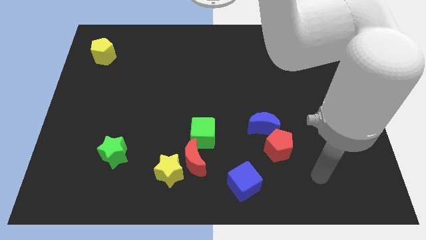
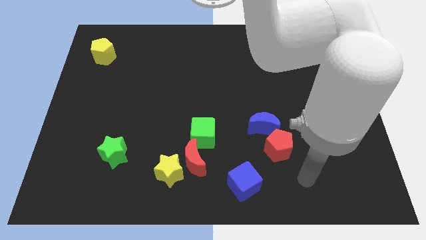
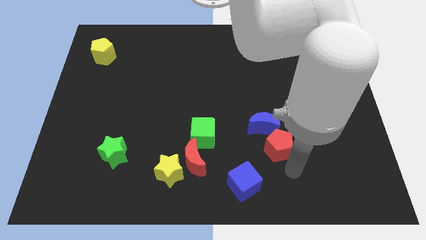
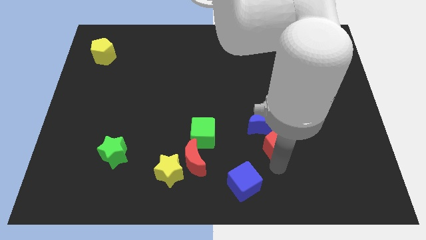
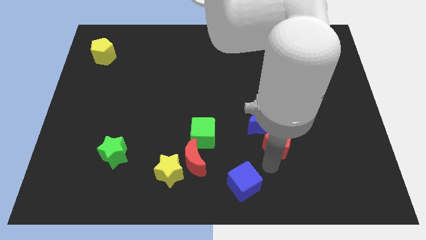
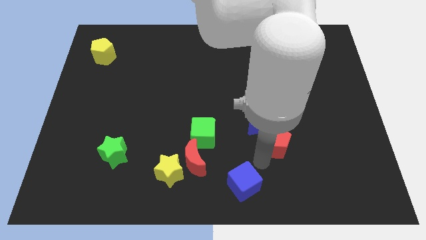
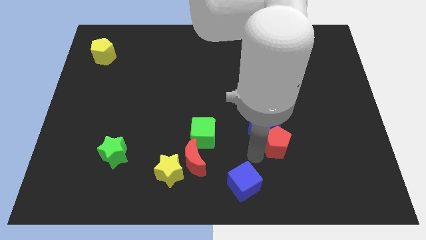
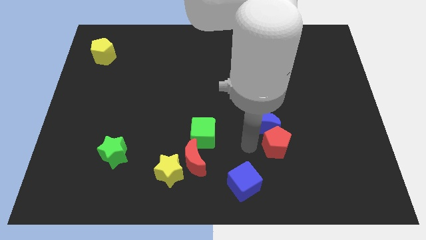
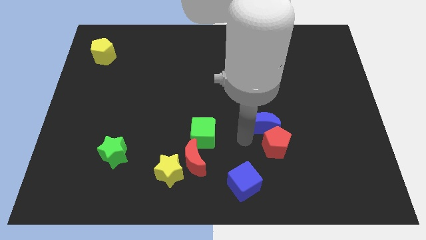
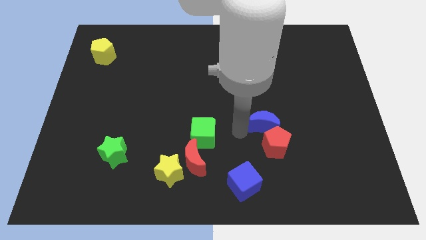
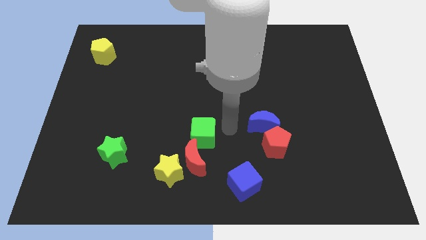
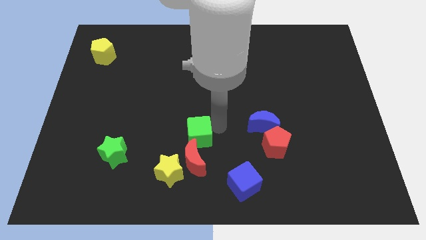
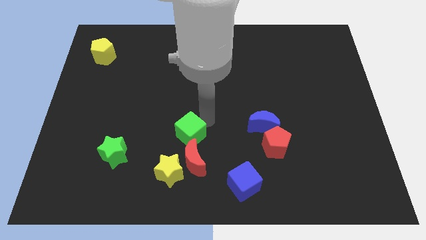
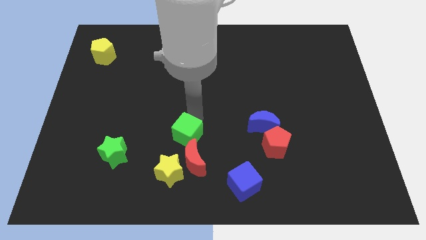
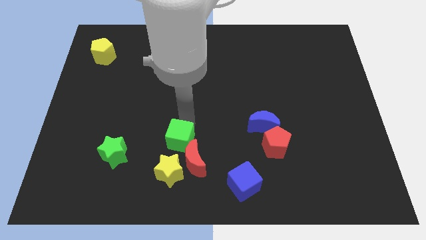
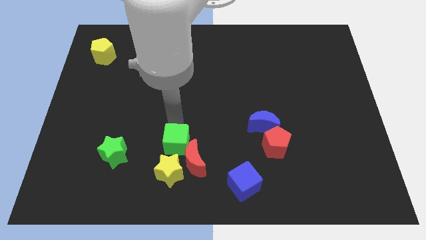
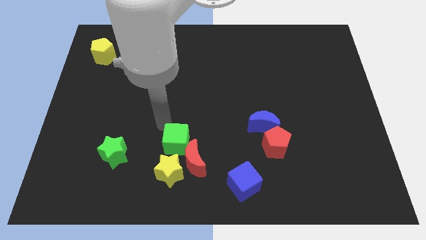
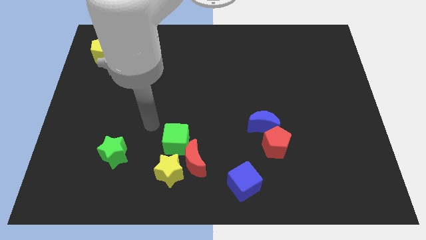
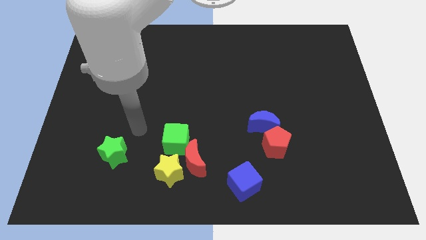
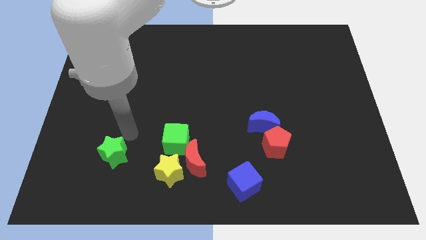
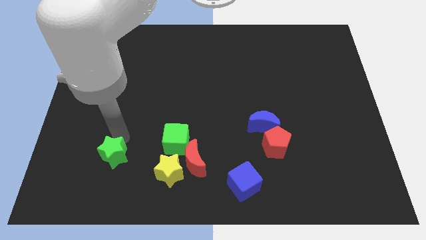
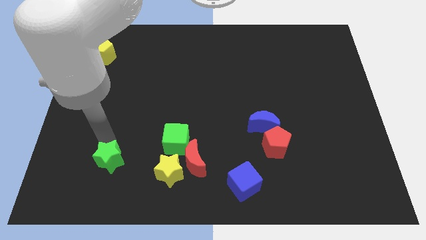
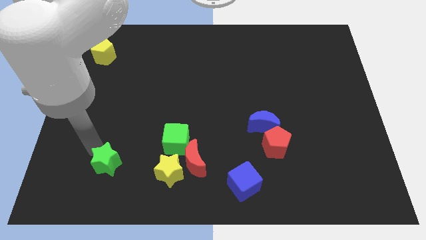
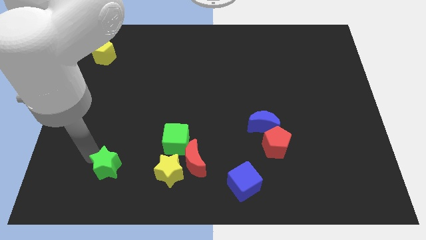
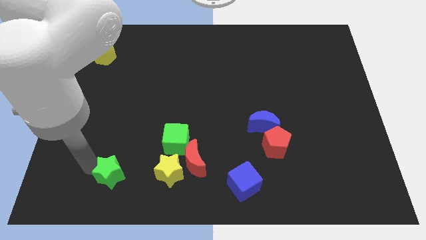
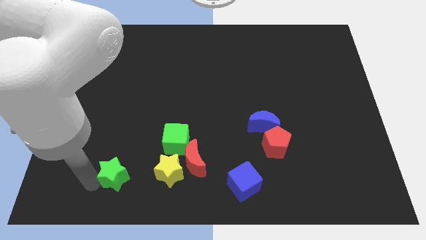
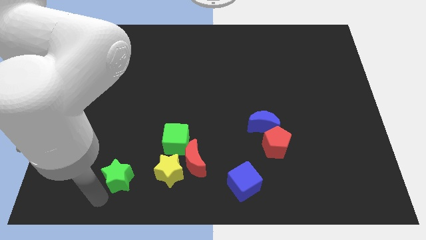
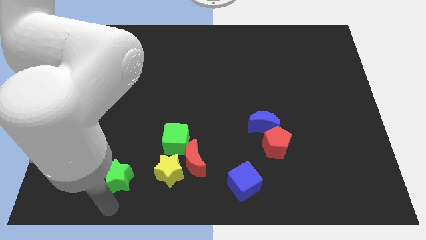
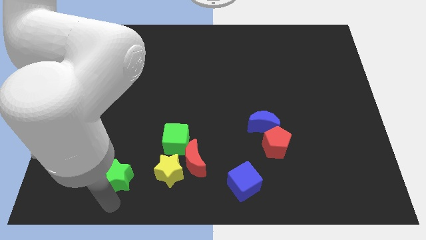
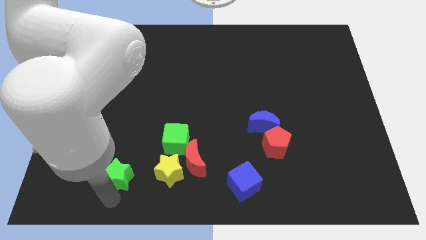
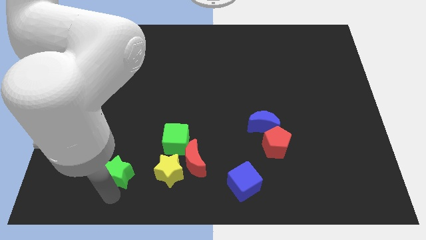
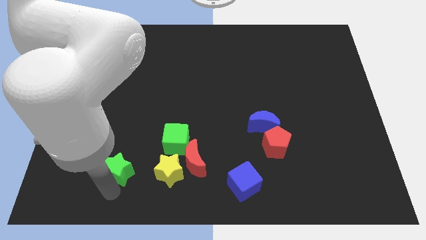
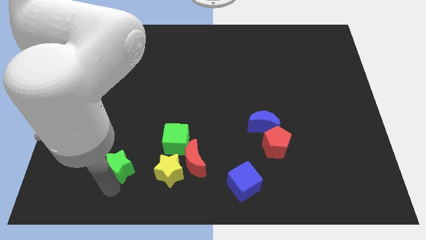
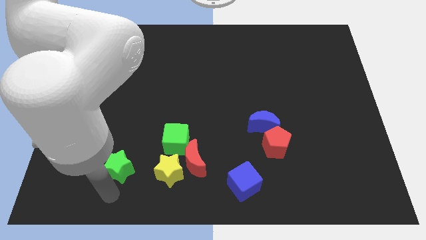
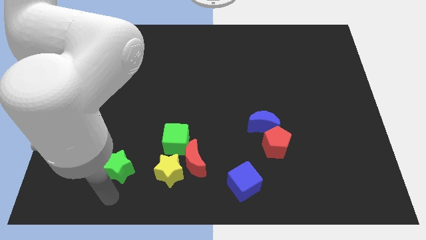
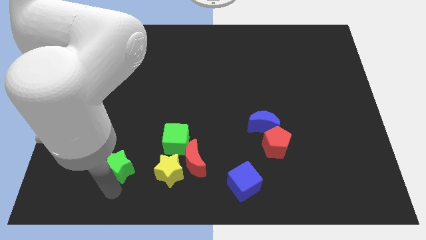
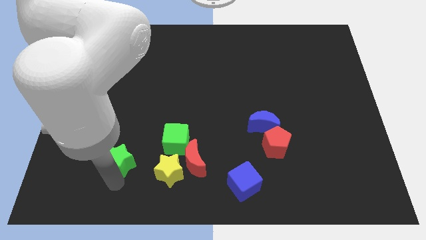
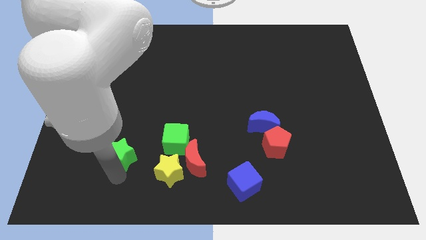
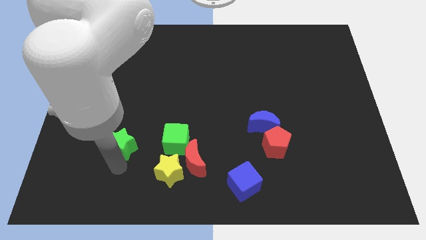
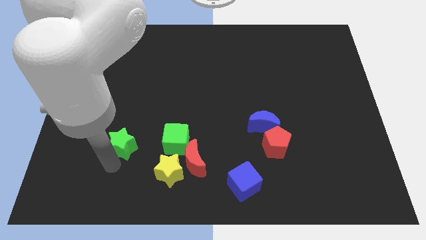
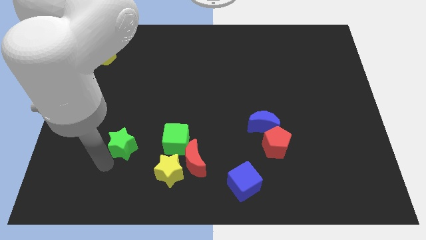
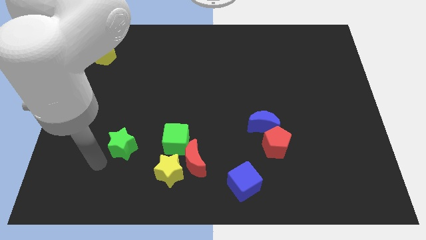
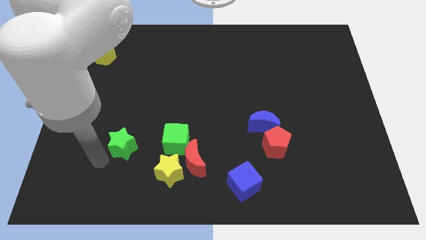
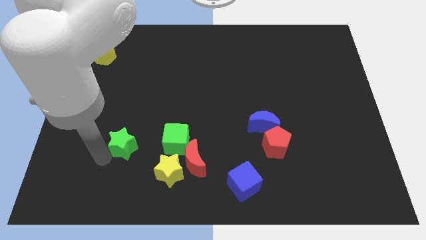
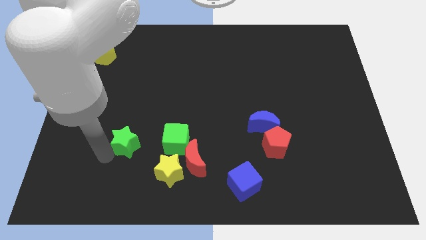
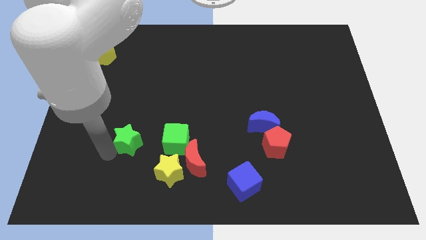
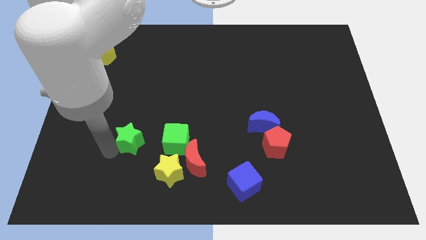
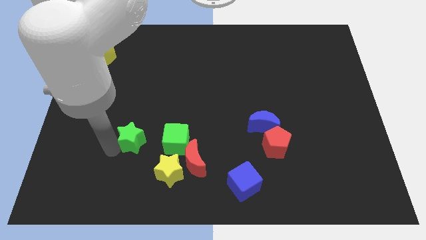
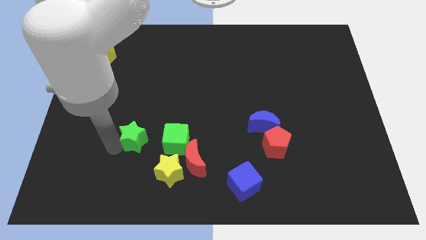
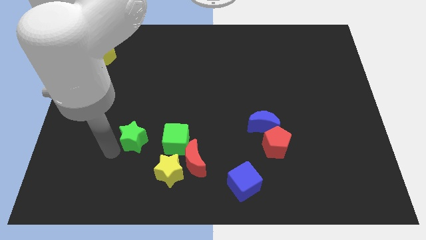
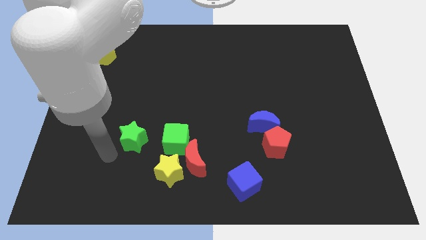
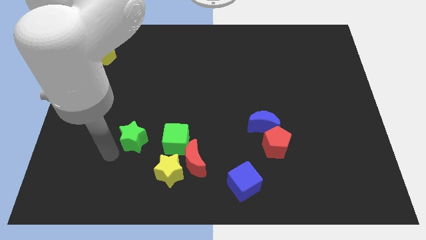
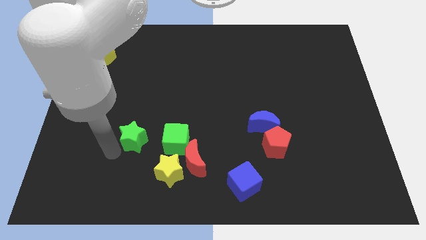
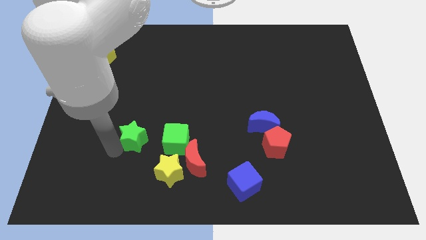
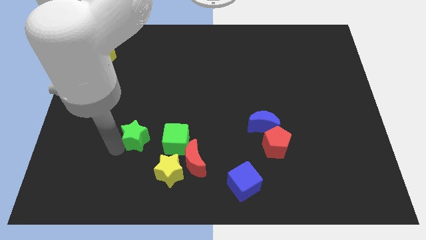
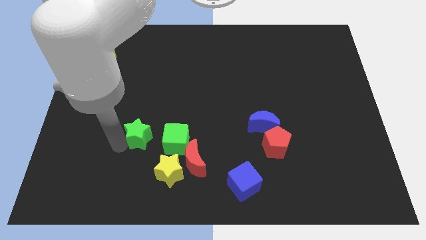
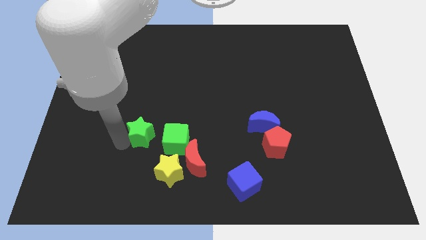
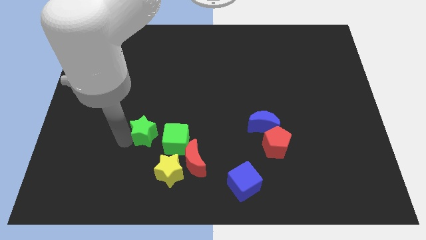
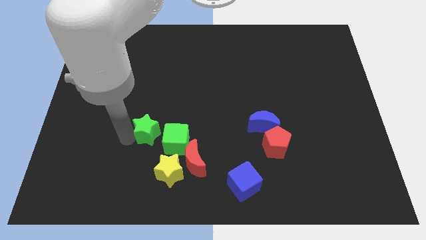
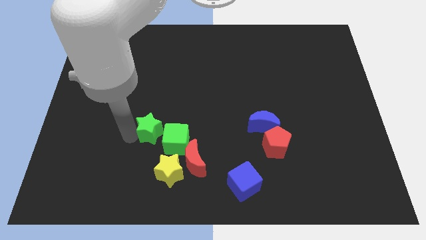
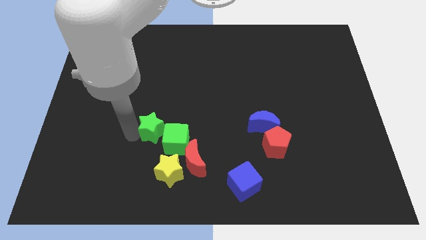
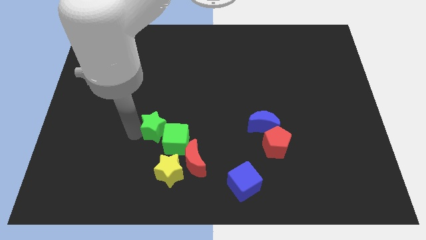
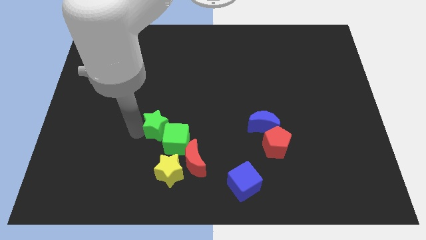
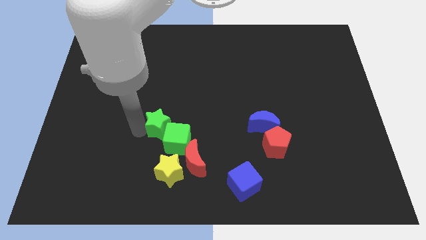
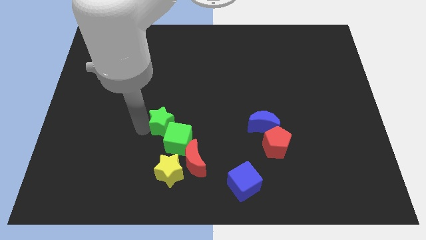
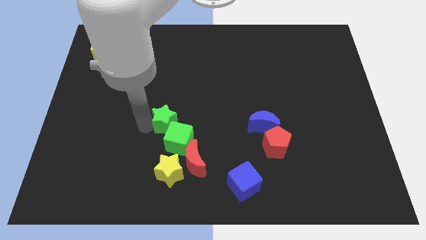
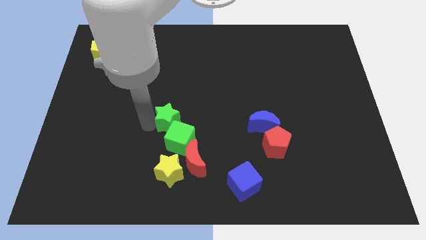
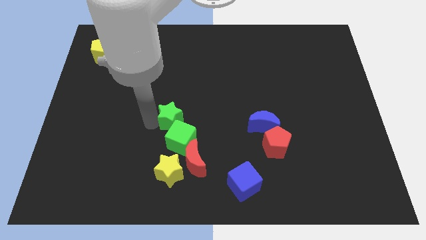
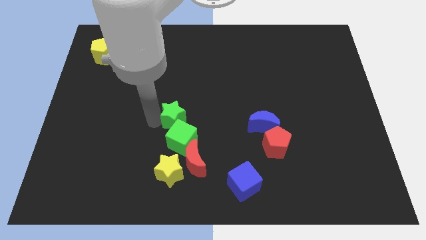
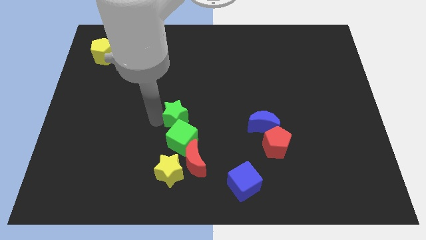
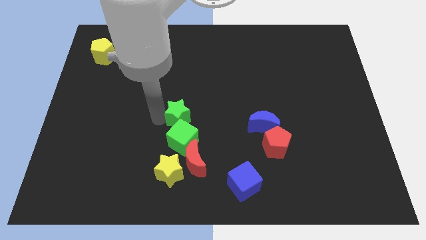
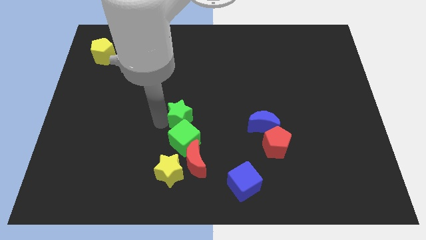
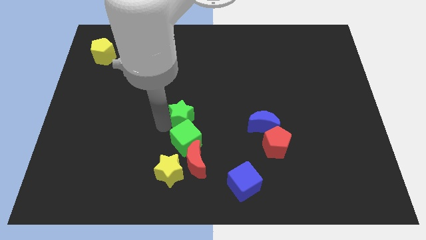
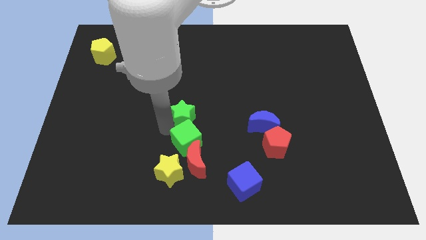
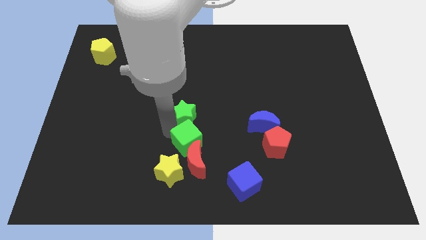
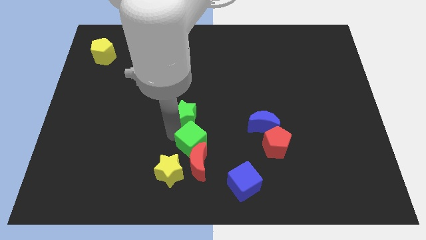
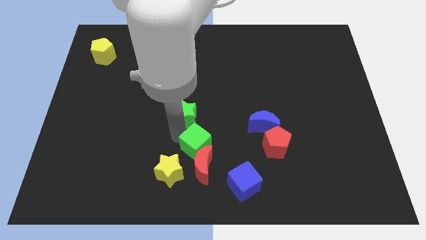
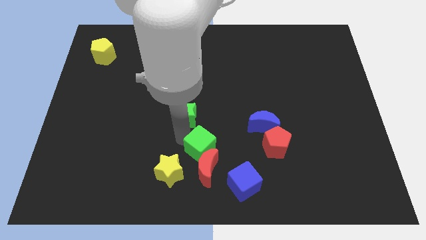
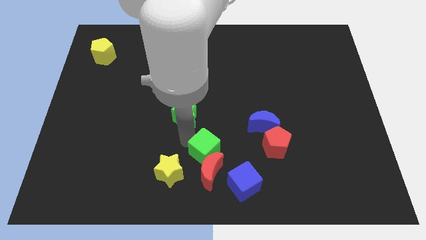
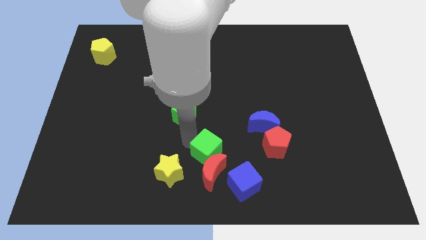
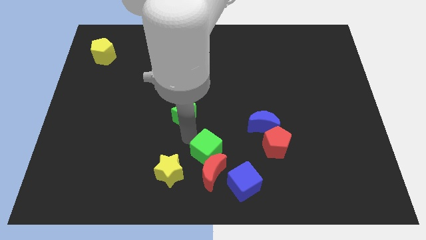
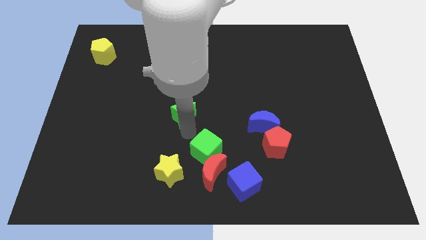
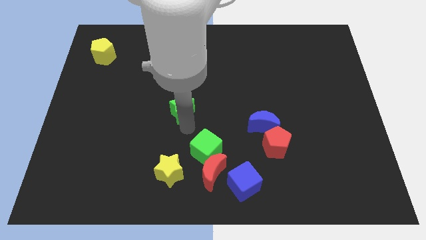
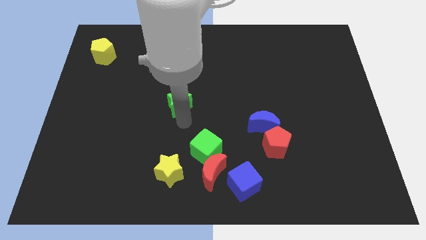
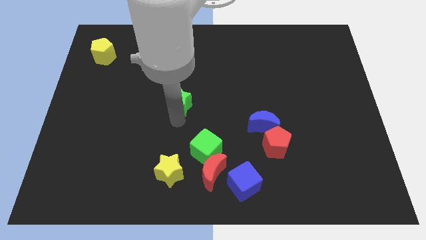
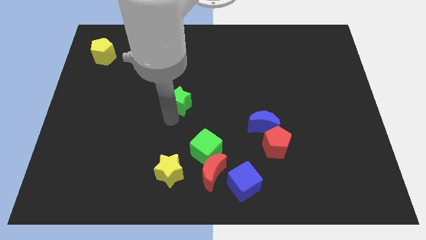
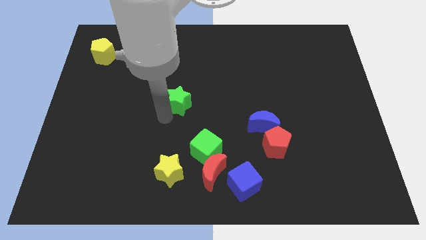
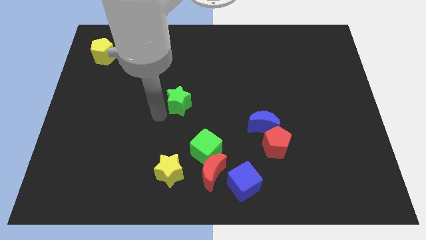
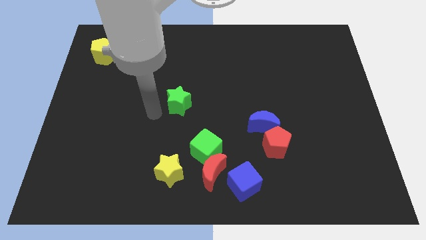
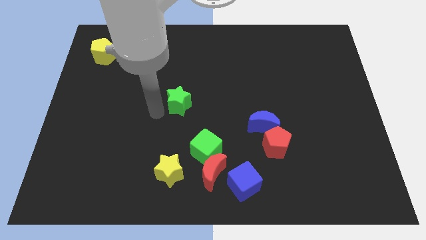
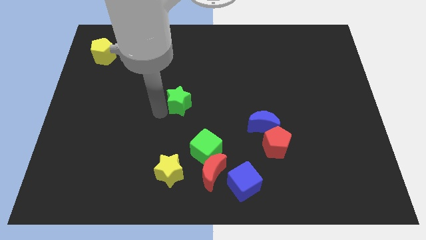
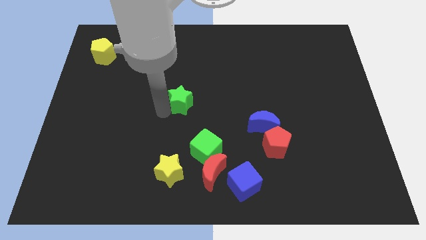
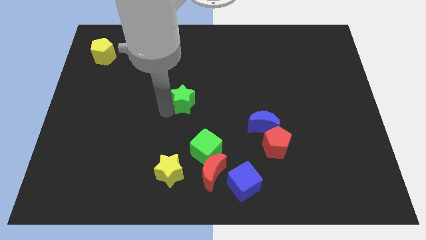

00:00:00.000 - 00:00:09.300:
slide the green star up and to the right diagonally
